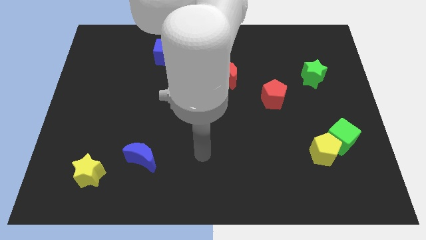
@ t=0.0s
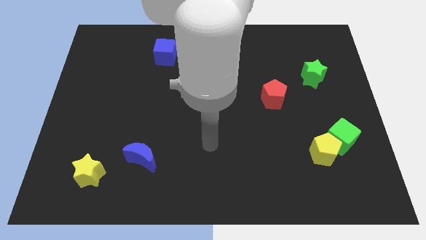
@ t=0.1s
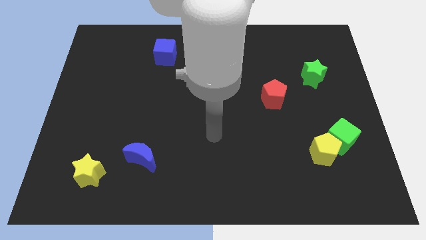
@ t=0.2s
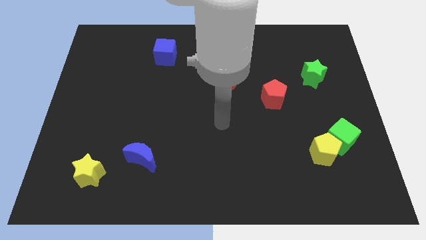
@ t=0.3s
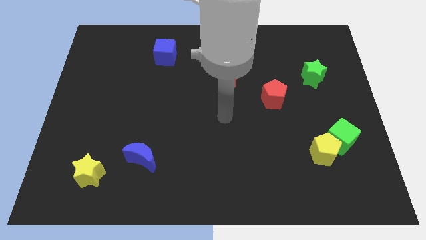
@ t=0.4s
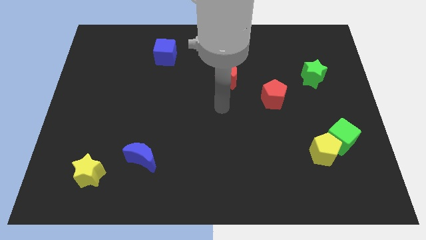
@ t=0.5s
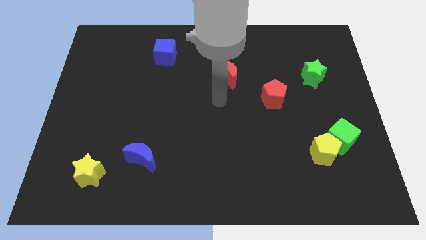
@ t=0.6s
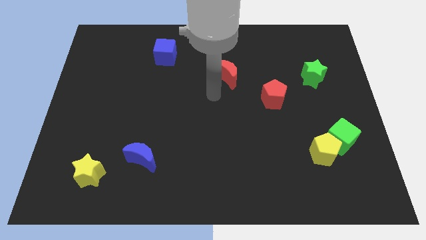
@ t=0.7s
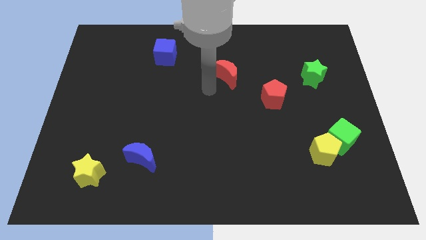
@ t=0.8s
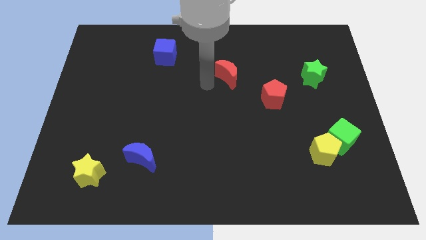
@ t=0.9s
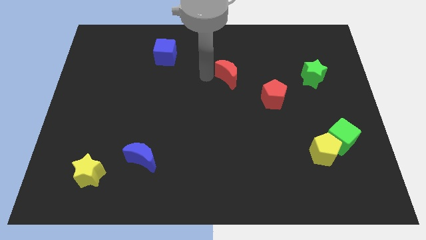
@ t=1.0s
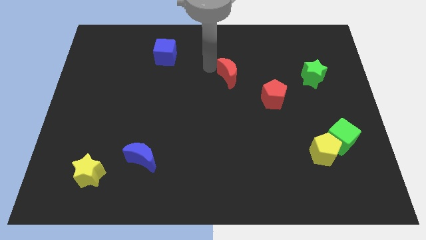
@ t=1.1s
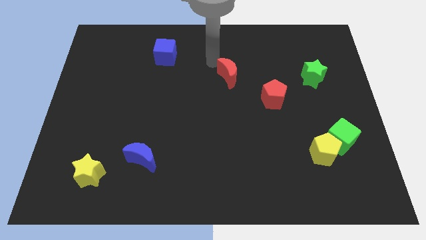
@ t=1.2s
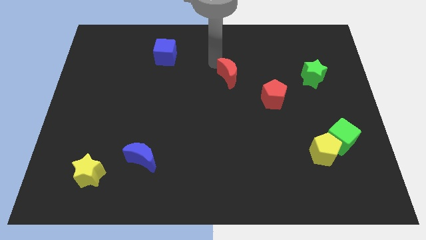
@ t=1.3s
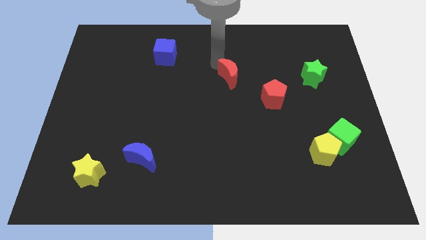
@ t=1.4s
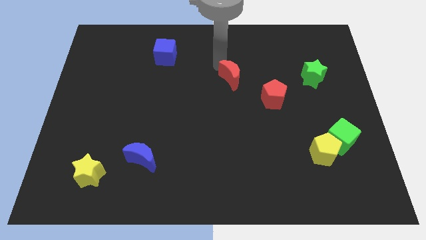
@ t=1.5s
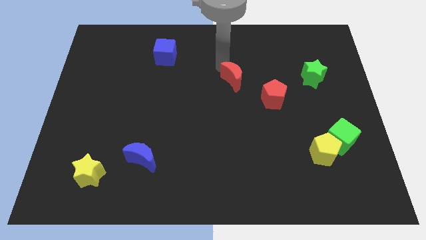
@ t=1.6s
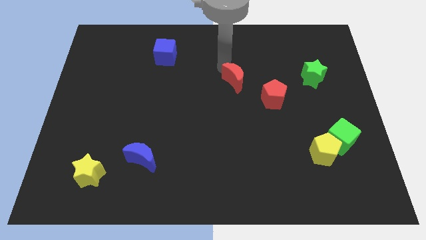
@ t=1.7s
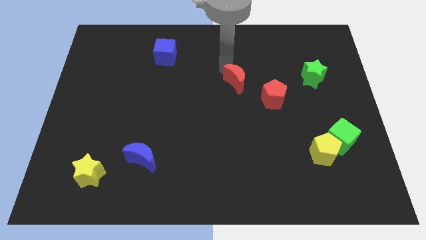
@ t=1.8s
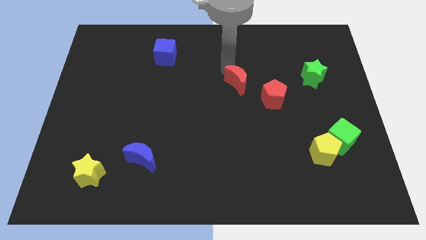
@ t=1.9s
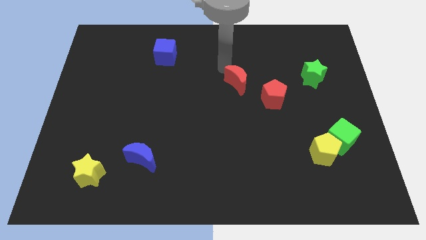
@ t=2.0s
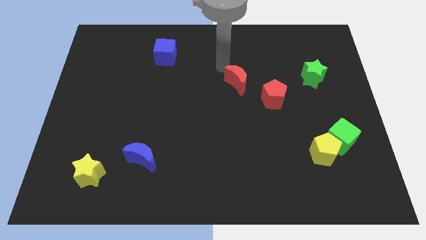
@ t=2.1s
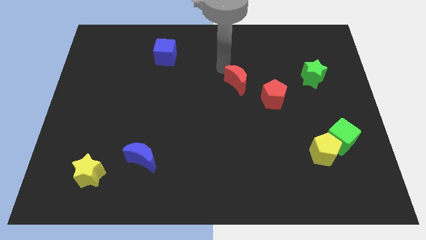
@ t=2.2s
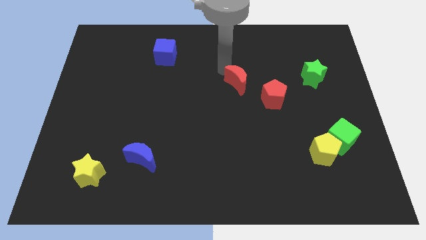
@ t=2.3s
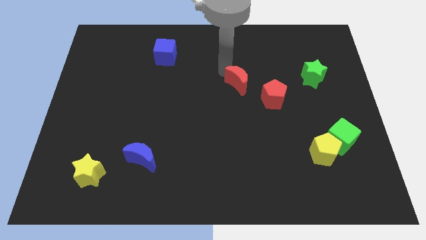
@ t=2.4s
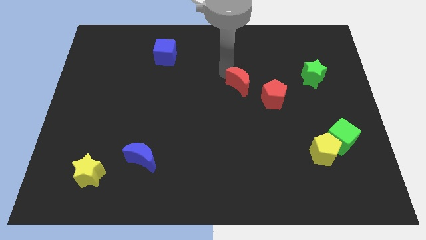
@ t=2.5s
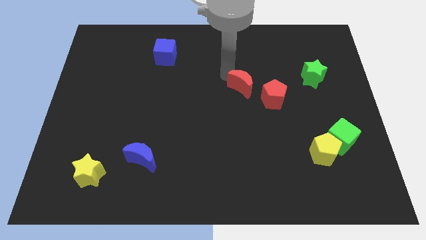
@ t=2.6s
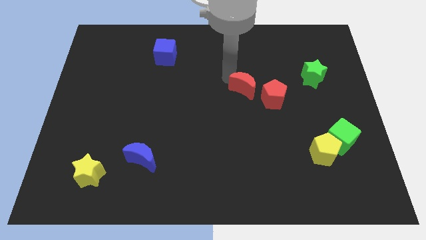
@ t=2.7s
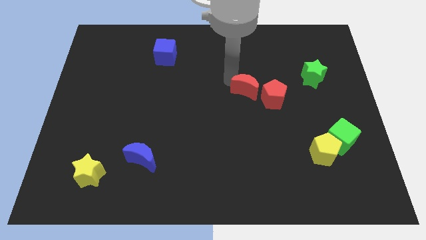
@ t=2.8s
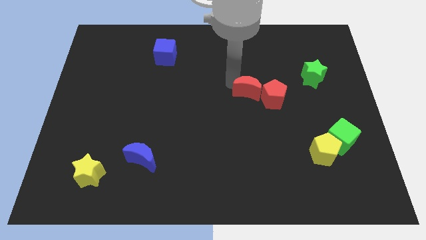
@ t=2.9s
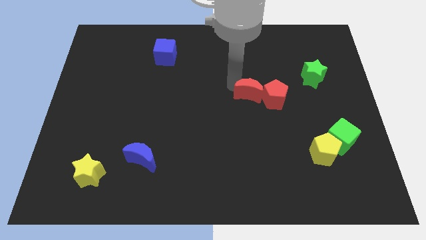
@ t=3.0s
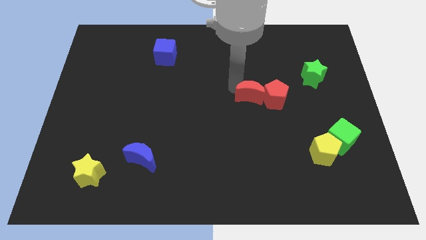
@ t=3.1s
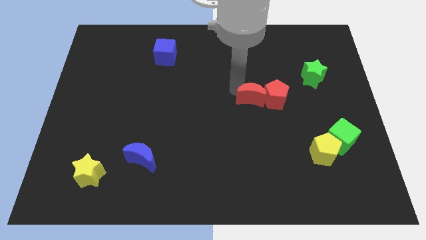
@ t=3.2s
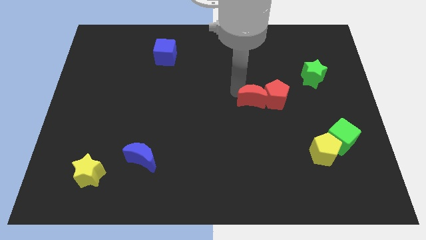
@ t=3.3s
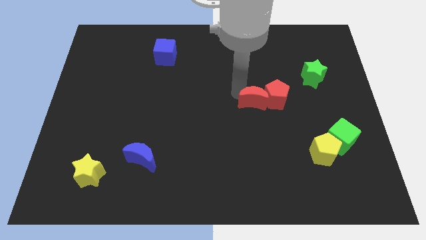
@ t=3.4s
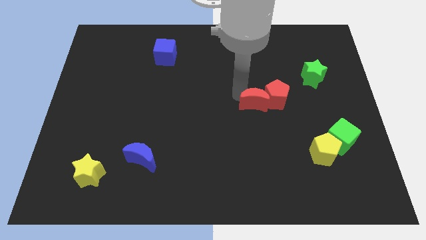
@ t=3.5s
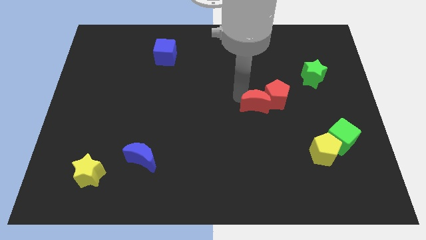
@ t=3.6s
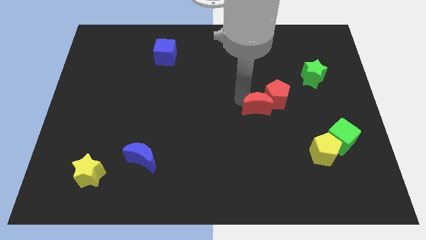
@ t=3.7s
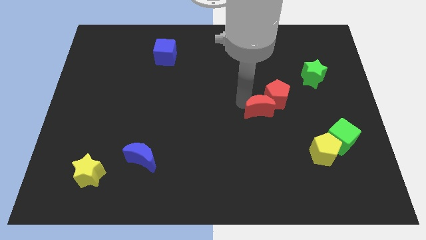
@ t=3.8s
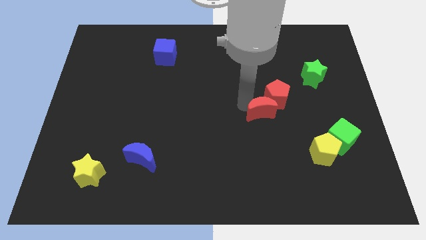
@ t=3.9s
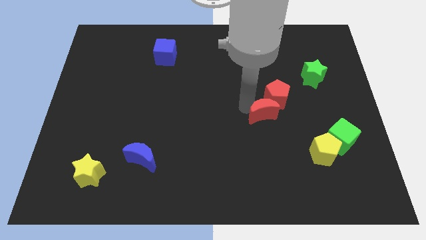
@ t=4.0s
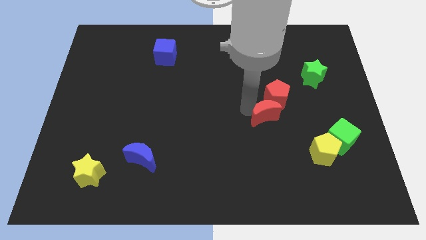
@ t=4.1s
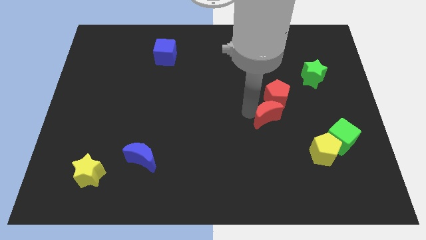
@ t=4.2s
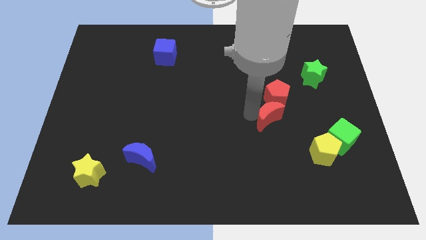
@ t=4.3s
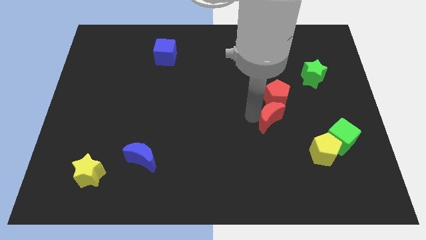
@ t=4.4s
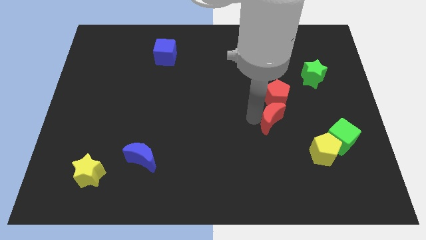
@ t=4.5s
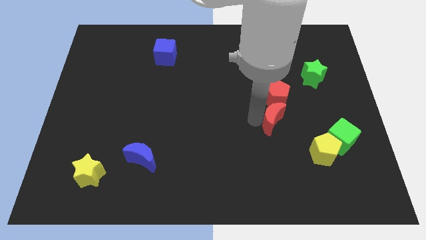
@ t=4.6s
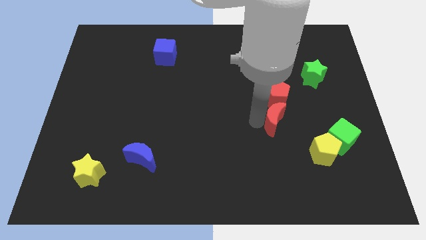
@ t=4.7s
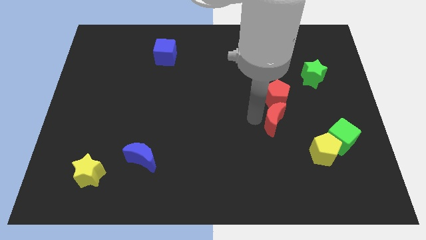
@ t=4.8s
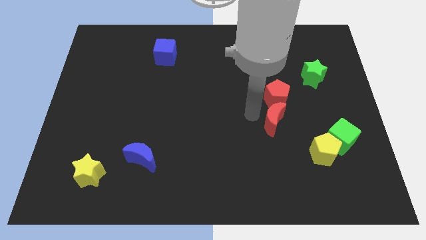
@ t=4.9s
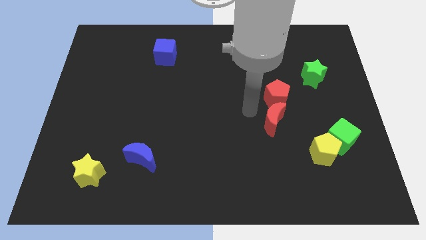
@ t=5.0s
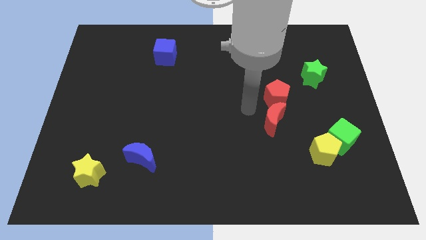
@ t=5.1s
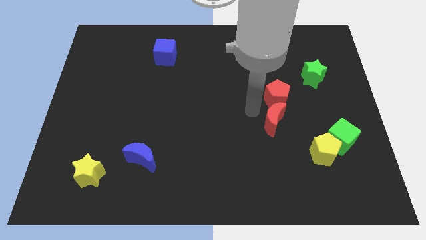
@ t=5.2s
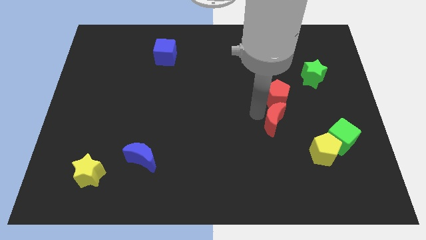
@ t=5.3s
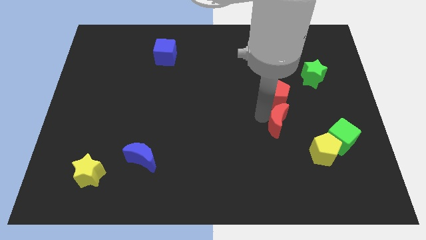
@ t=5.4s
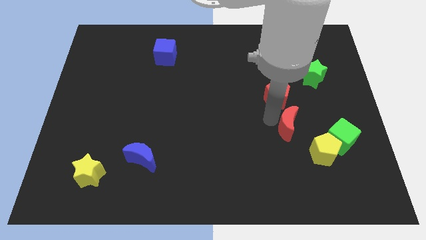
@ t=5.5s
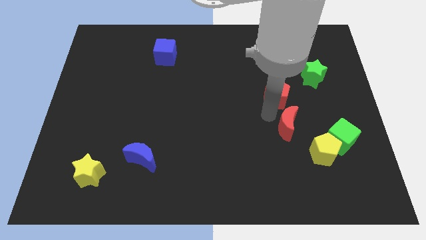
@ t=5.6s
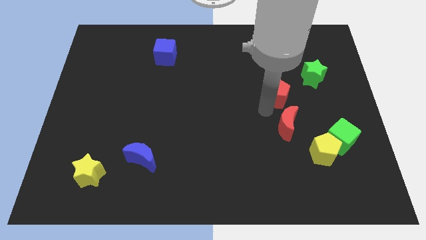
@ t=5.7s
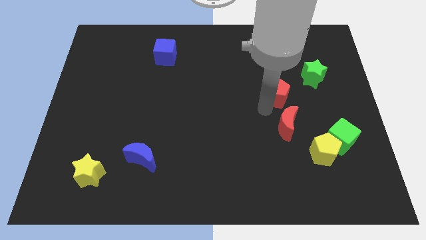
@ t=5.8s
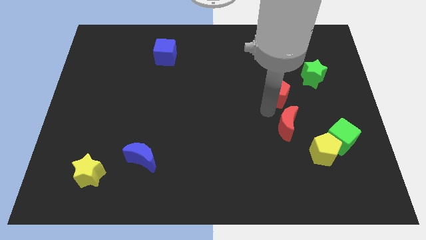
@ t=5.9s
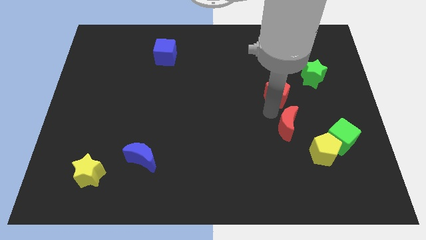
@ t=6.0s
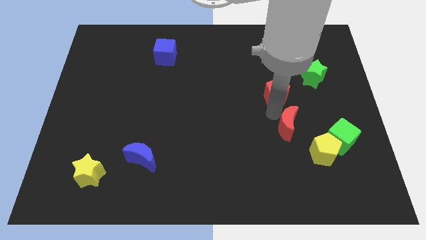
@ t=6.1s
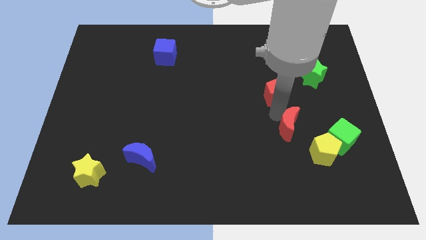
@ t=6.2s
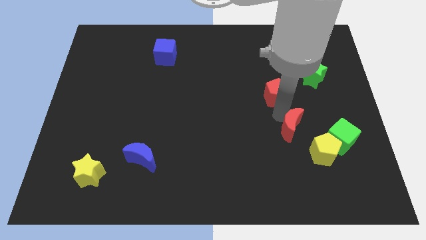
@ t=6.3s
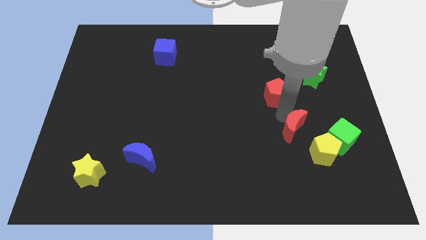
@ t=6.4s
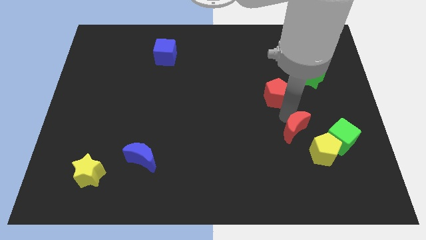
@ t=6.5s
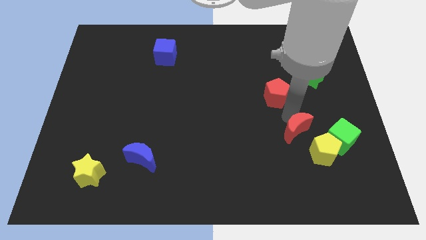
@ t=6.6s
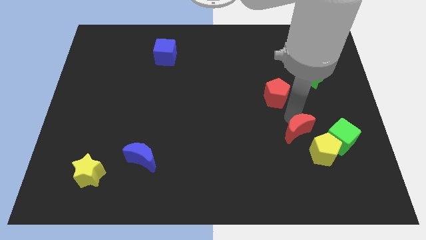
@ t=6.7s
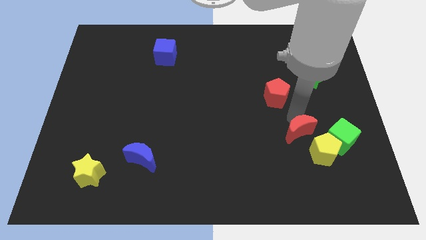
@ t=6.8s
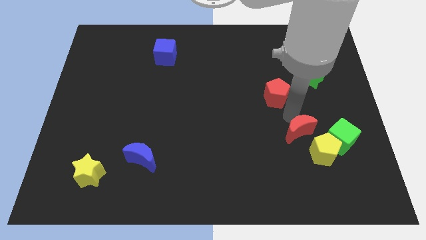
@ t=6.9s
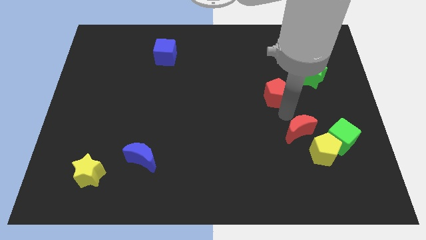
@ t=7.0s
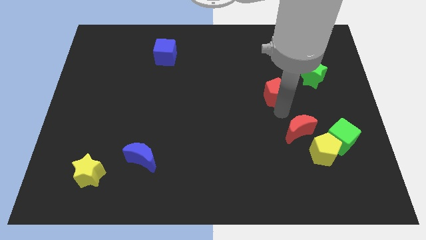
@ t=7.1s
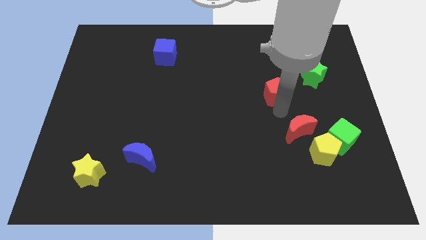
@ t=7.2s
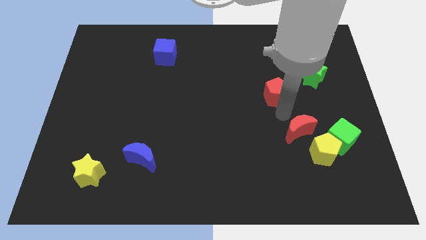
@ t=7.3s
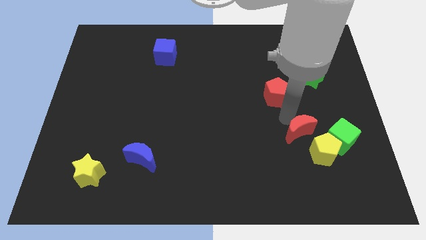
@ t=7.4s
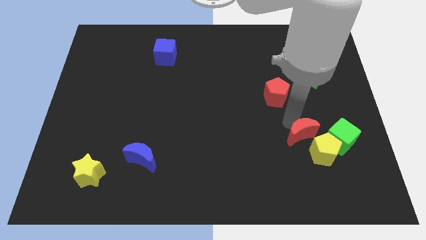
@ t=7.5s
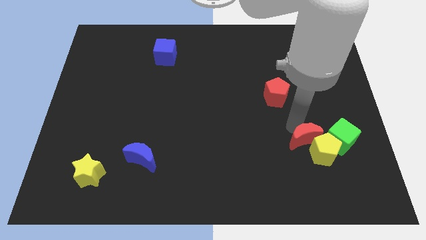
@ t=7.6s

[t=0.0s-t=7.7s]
move the red moon next to the yellow pentagon

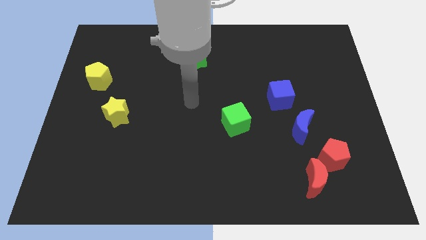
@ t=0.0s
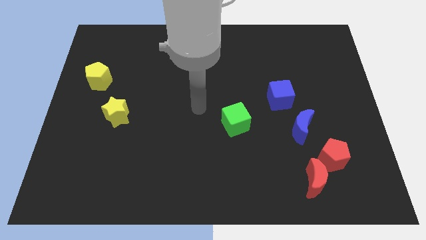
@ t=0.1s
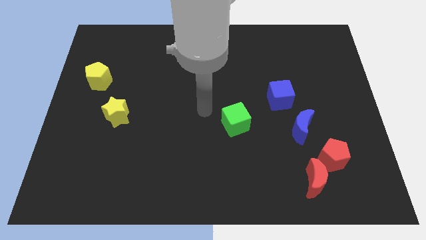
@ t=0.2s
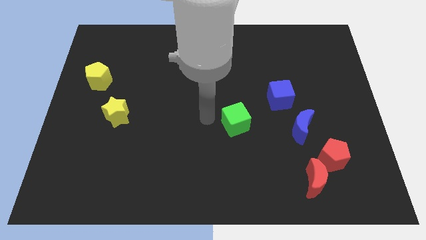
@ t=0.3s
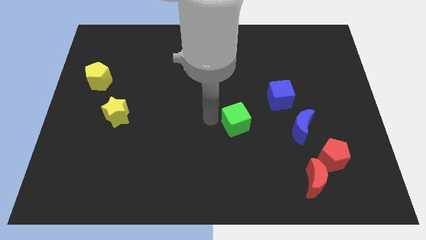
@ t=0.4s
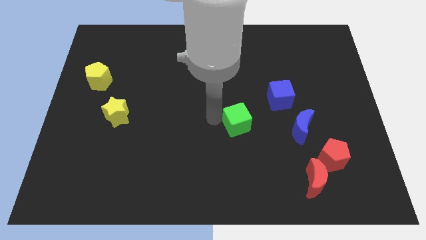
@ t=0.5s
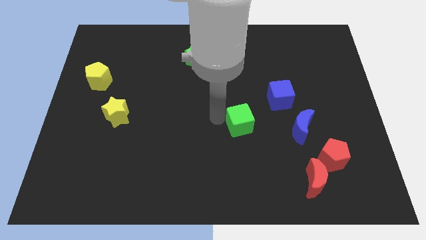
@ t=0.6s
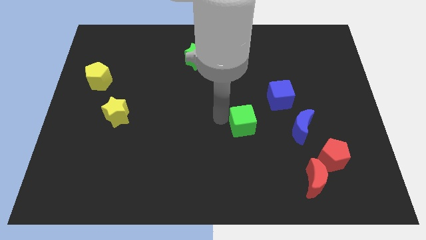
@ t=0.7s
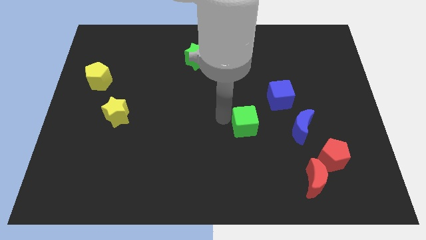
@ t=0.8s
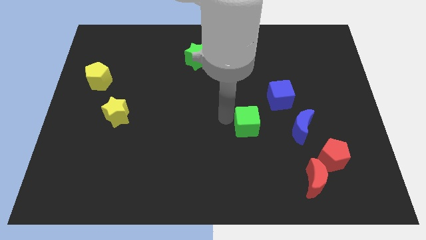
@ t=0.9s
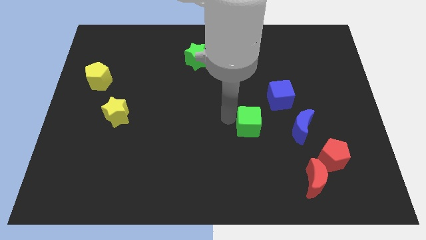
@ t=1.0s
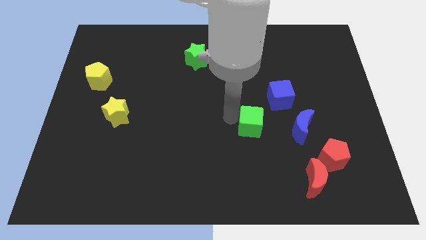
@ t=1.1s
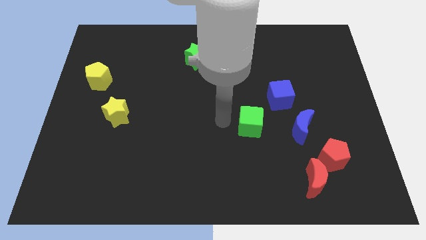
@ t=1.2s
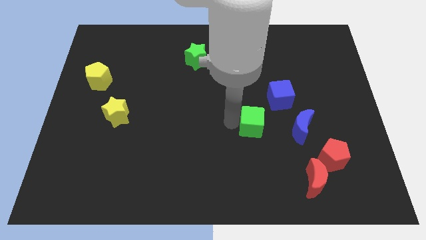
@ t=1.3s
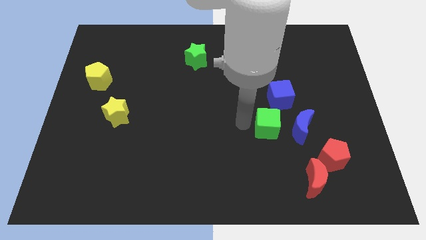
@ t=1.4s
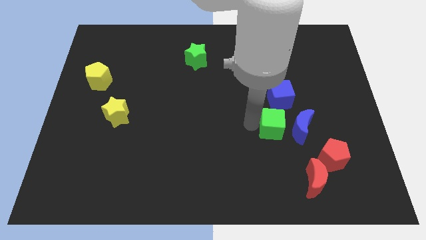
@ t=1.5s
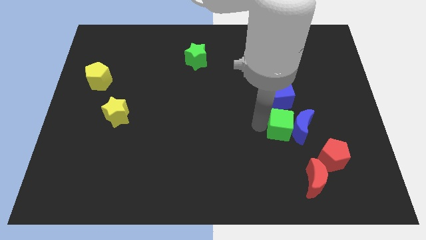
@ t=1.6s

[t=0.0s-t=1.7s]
push the green cube towards the blue moon
